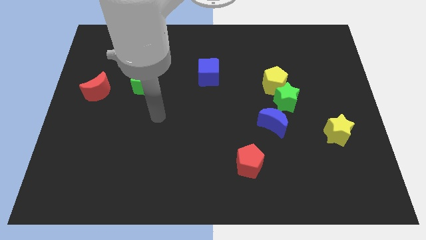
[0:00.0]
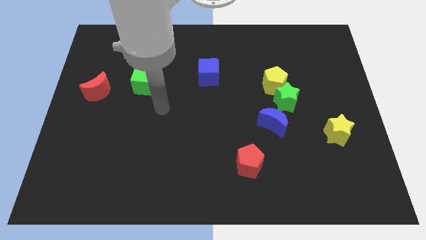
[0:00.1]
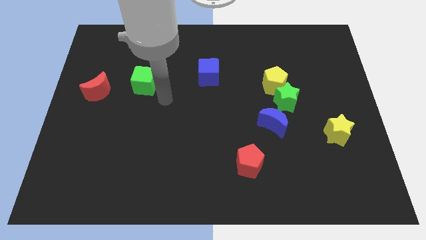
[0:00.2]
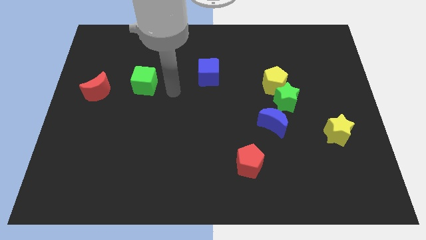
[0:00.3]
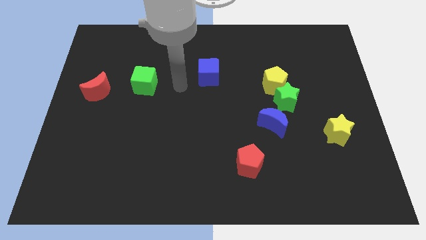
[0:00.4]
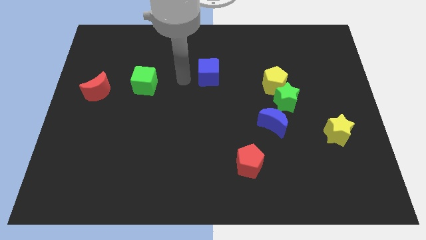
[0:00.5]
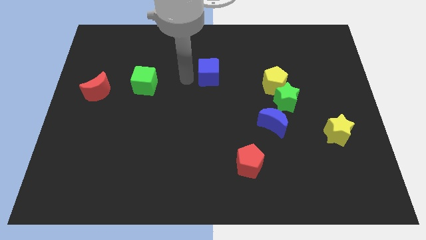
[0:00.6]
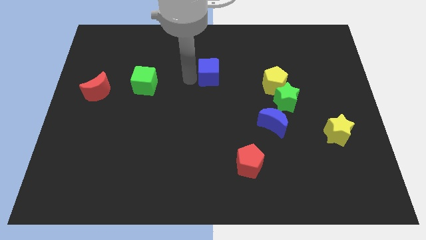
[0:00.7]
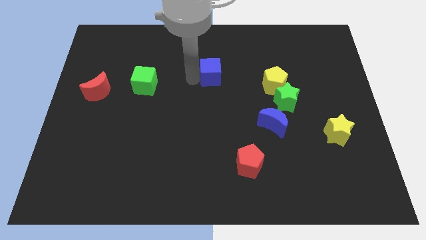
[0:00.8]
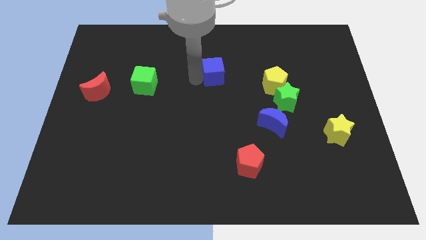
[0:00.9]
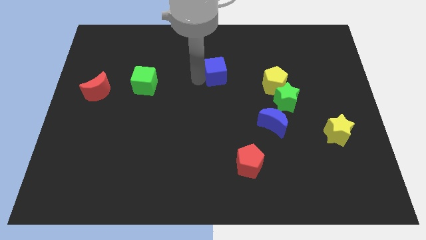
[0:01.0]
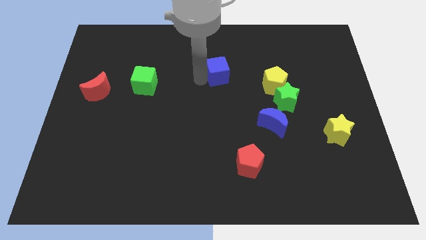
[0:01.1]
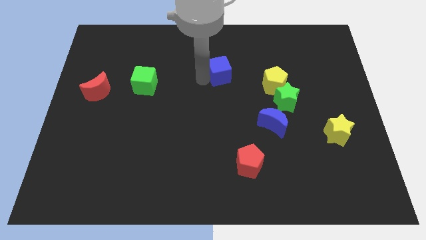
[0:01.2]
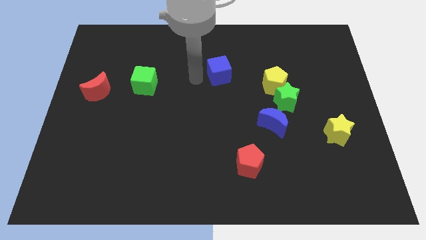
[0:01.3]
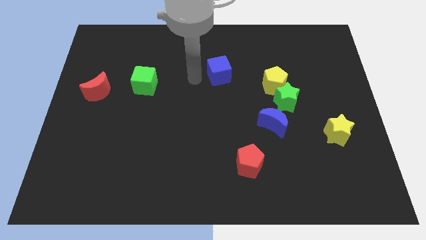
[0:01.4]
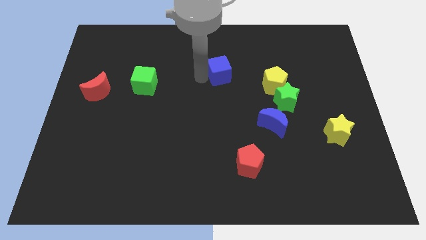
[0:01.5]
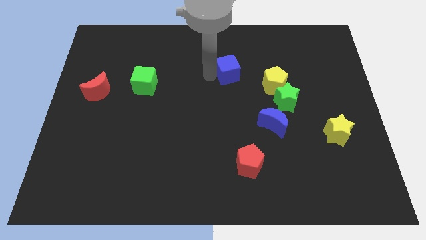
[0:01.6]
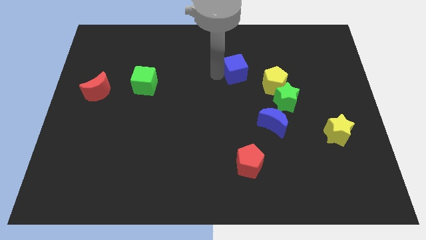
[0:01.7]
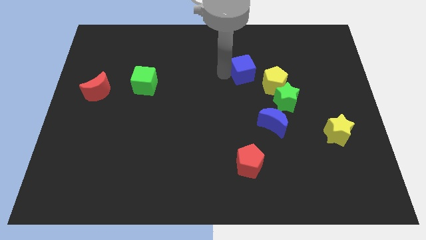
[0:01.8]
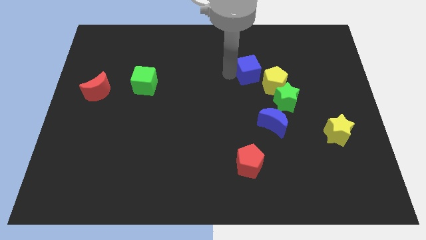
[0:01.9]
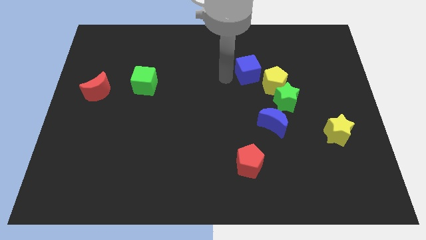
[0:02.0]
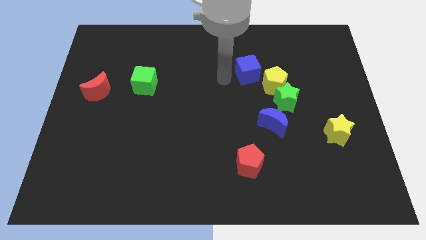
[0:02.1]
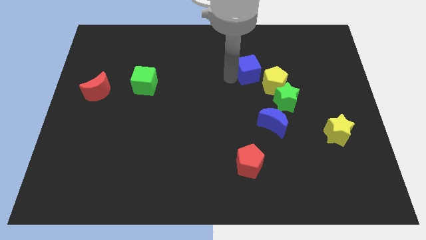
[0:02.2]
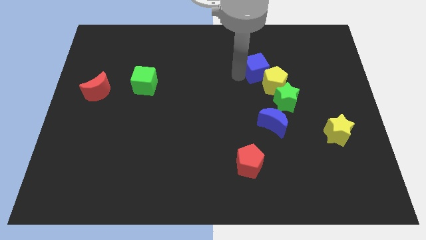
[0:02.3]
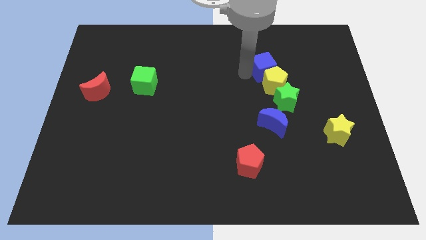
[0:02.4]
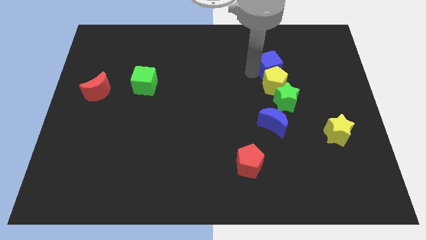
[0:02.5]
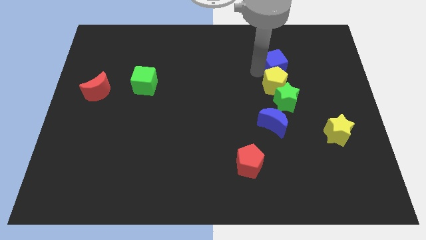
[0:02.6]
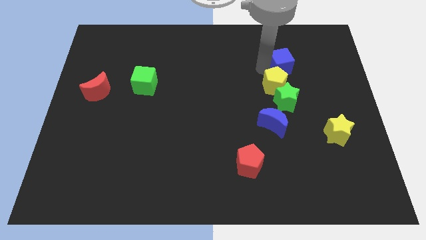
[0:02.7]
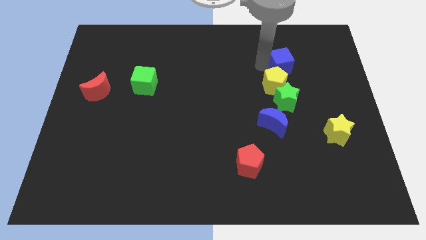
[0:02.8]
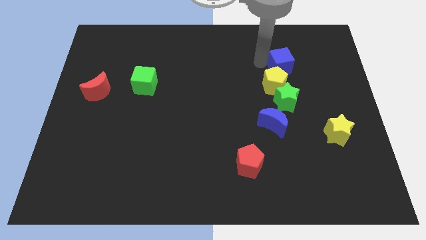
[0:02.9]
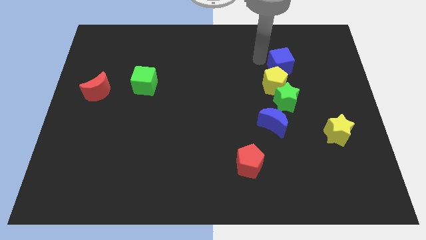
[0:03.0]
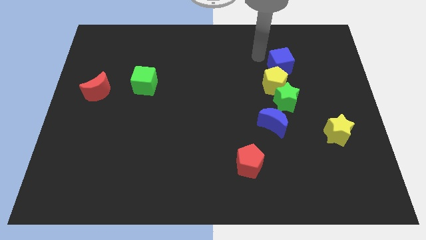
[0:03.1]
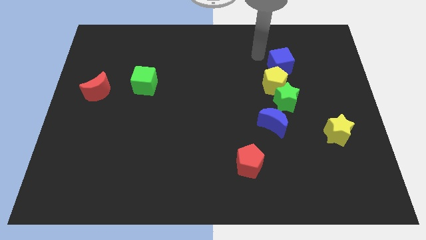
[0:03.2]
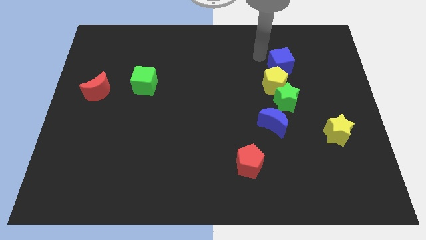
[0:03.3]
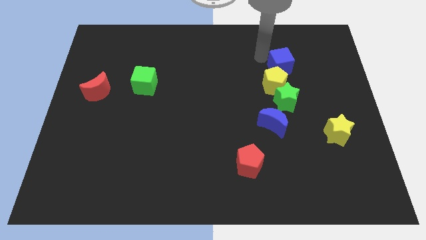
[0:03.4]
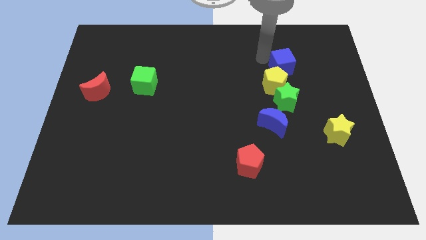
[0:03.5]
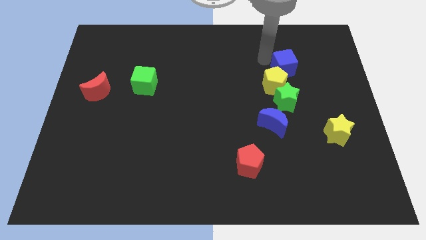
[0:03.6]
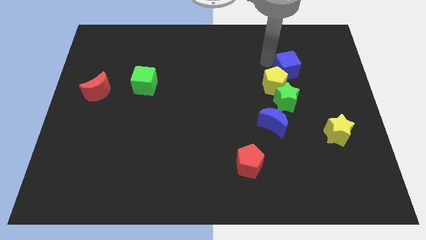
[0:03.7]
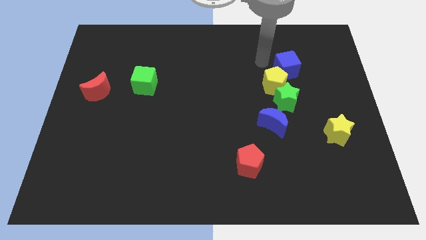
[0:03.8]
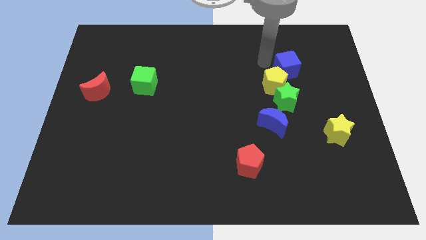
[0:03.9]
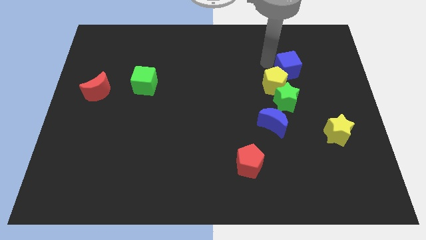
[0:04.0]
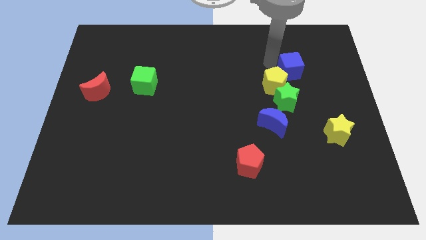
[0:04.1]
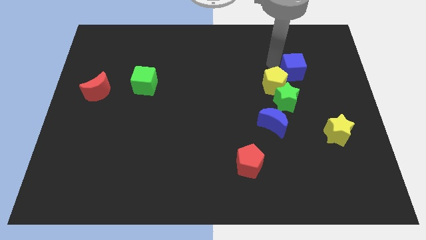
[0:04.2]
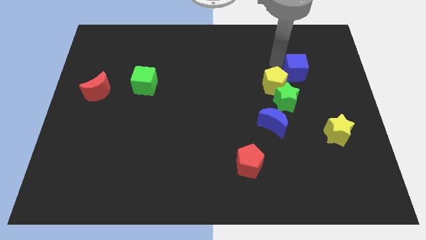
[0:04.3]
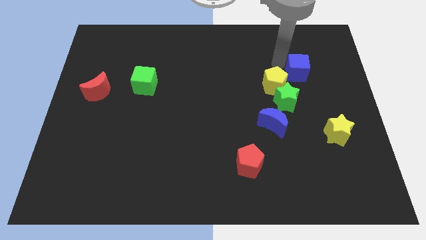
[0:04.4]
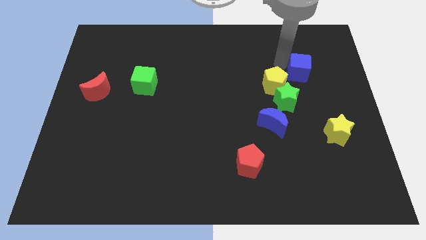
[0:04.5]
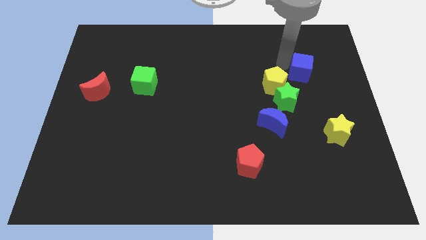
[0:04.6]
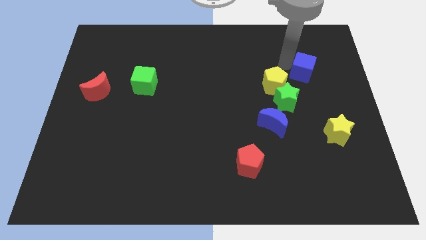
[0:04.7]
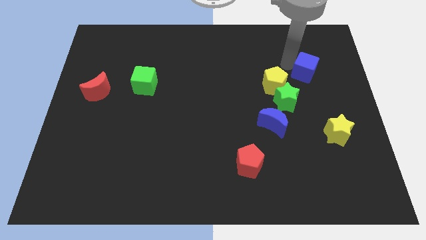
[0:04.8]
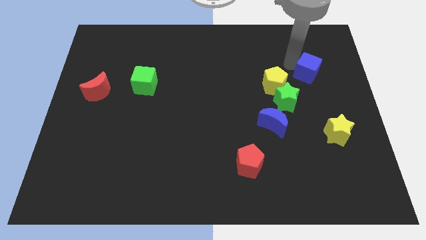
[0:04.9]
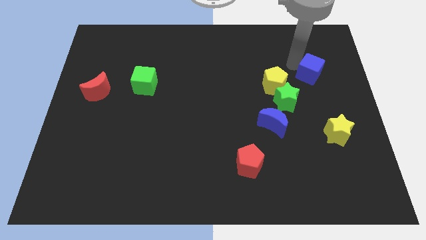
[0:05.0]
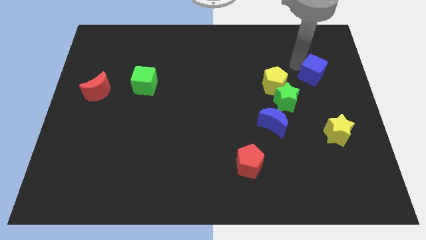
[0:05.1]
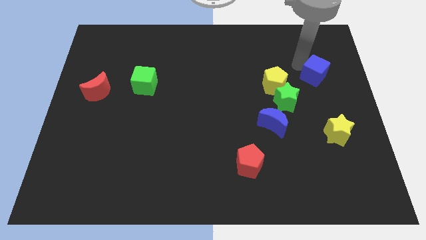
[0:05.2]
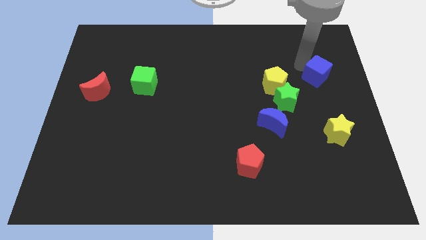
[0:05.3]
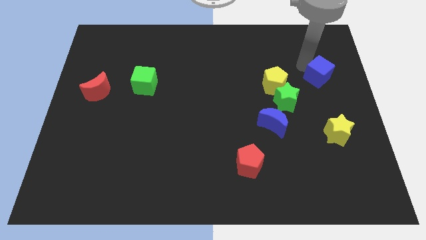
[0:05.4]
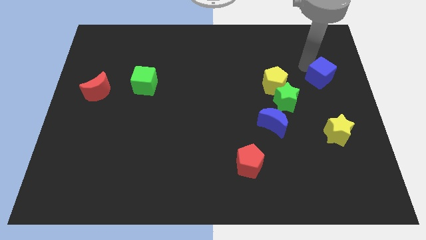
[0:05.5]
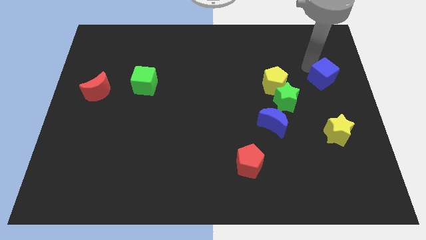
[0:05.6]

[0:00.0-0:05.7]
move the blue cube to the right side

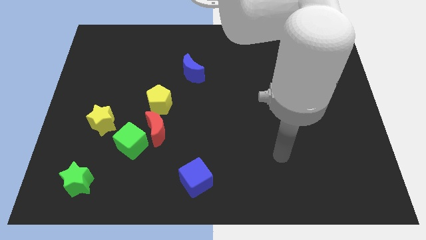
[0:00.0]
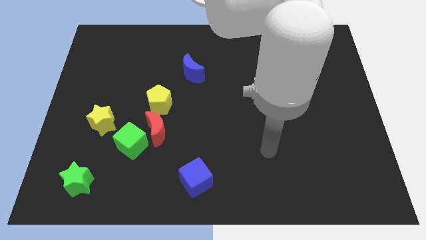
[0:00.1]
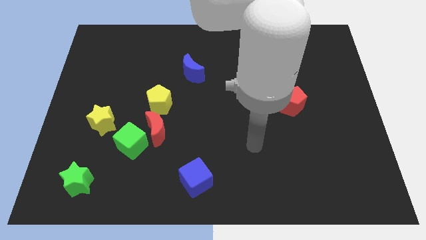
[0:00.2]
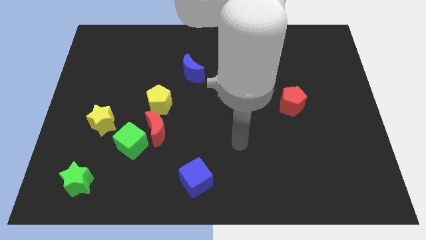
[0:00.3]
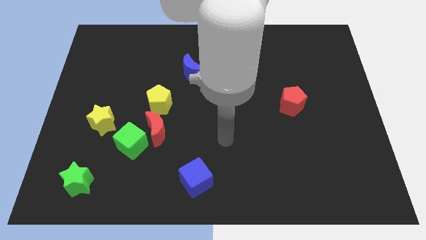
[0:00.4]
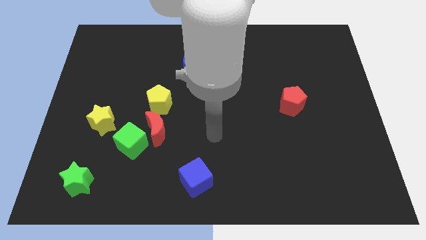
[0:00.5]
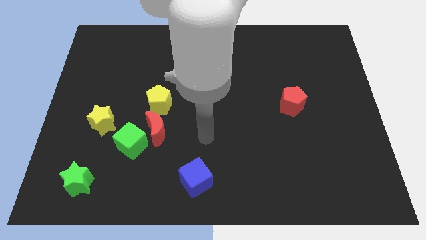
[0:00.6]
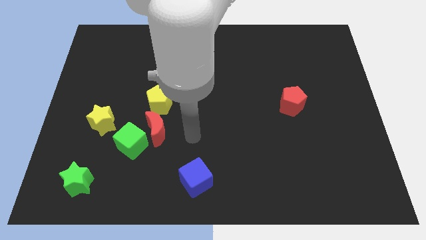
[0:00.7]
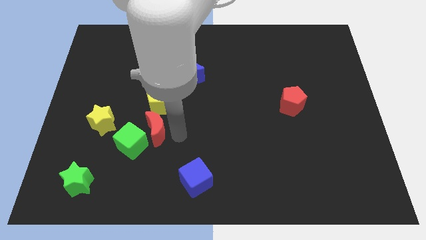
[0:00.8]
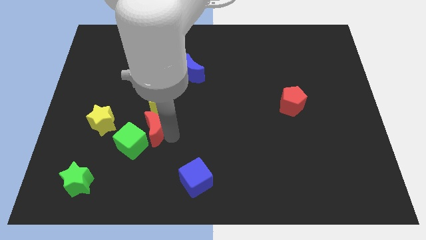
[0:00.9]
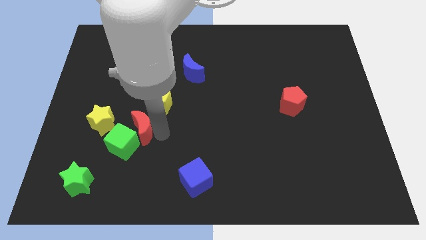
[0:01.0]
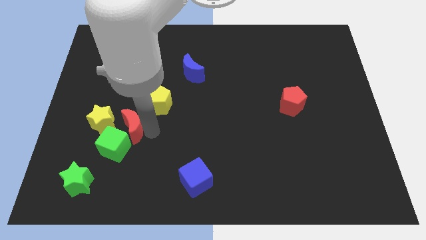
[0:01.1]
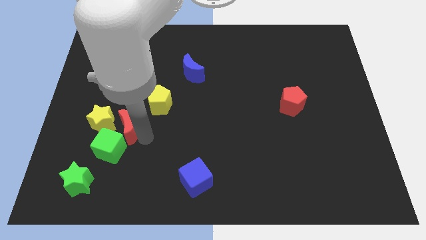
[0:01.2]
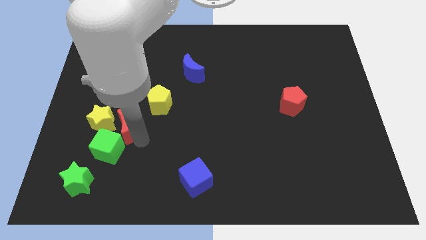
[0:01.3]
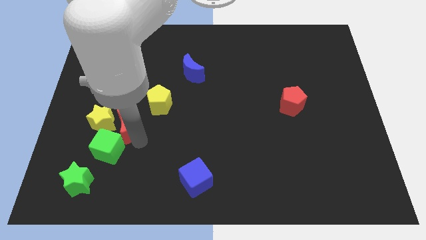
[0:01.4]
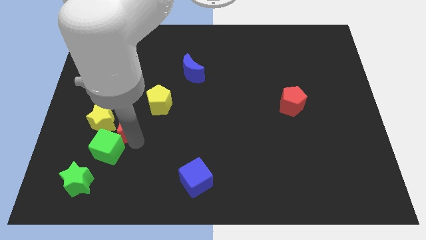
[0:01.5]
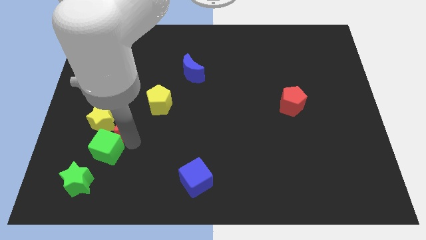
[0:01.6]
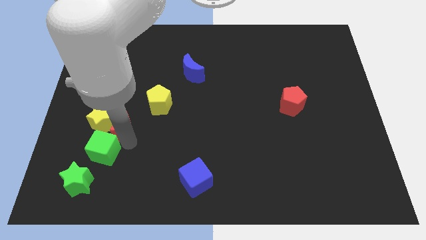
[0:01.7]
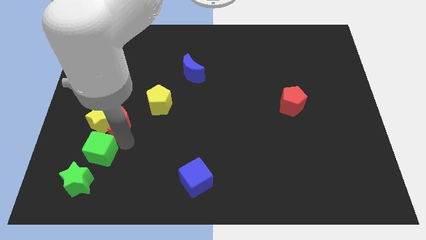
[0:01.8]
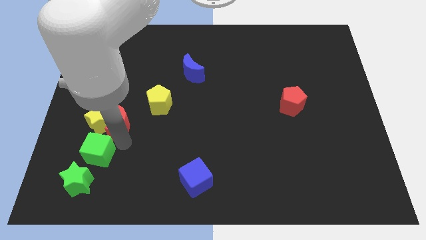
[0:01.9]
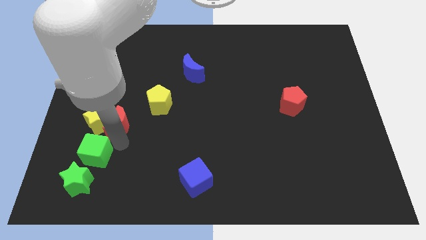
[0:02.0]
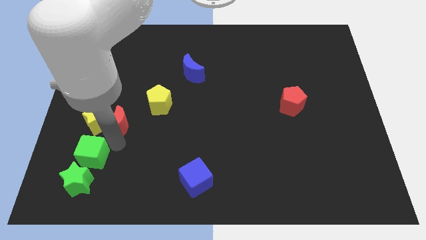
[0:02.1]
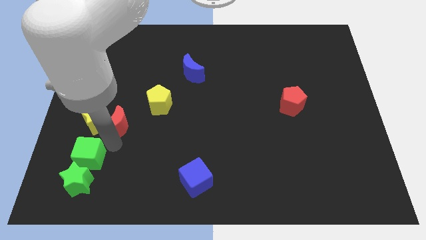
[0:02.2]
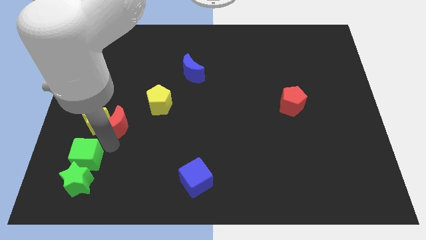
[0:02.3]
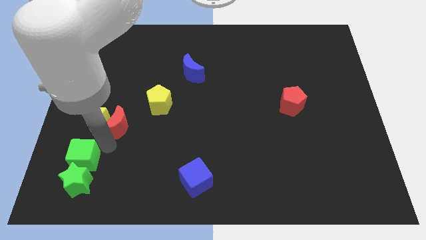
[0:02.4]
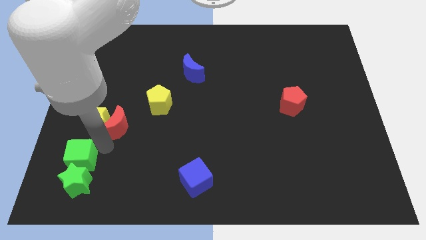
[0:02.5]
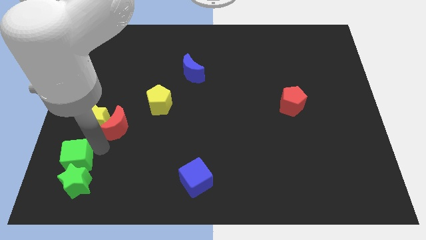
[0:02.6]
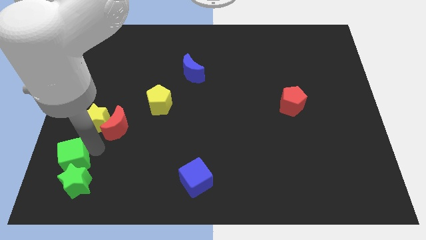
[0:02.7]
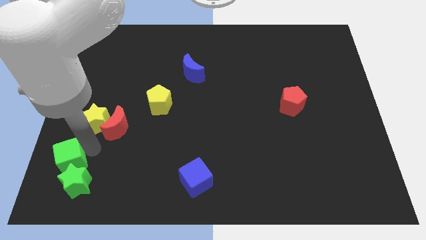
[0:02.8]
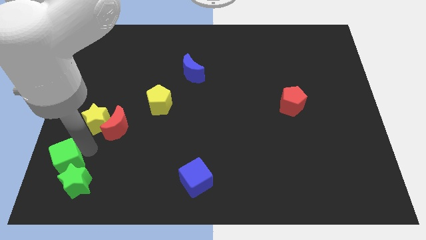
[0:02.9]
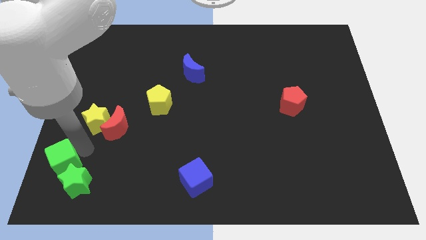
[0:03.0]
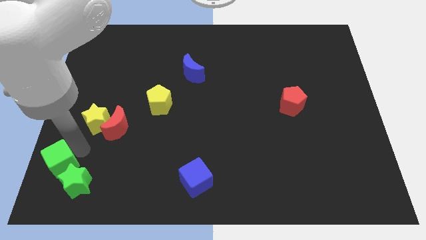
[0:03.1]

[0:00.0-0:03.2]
push the green cube to the bottom left of the board
